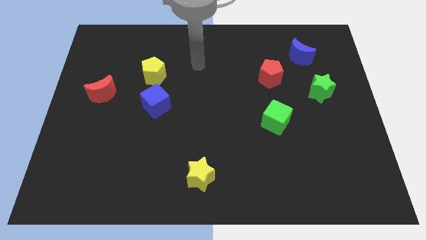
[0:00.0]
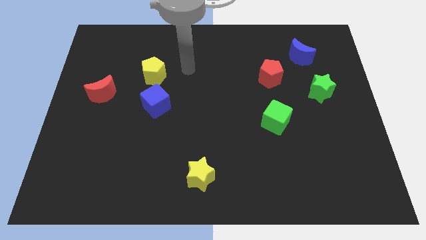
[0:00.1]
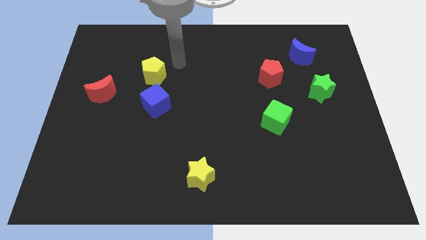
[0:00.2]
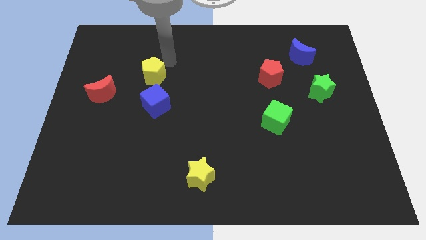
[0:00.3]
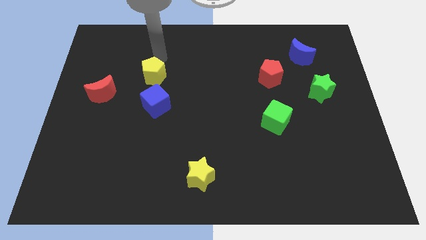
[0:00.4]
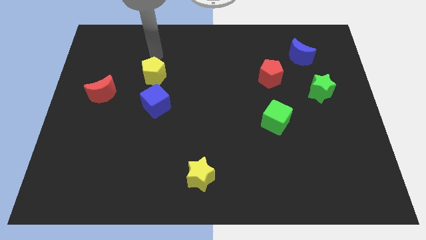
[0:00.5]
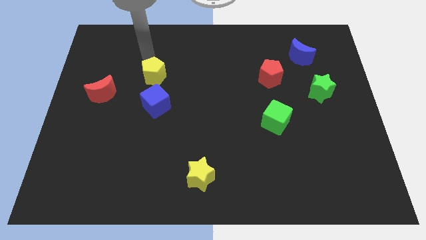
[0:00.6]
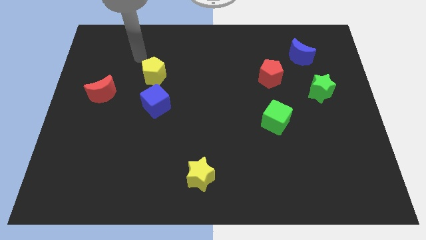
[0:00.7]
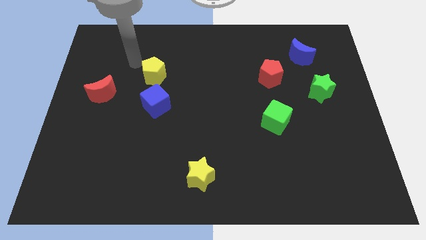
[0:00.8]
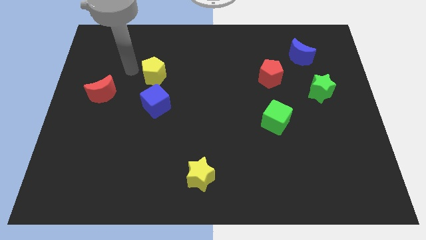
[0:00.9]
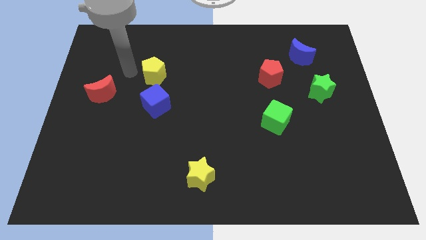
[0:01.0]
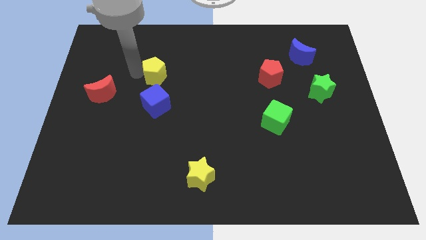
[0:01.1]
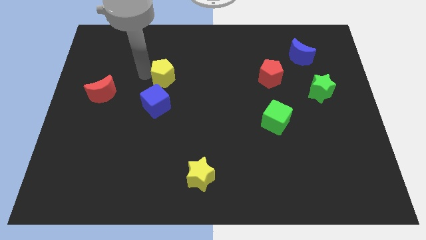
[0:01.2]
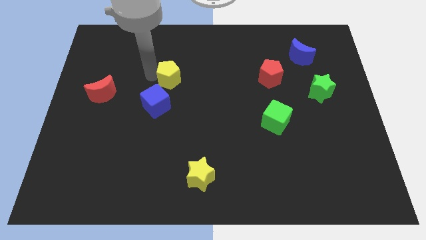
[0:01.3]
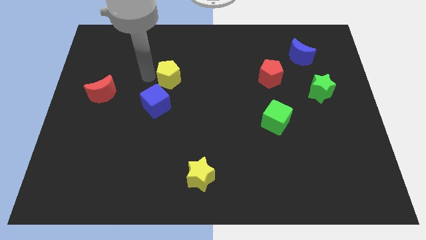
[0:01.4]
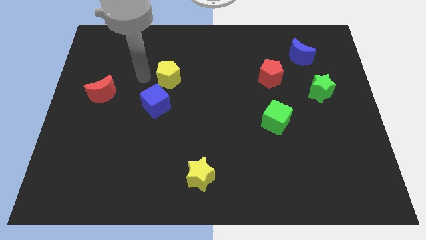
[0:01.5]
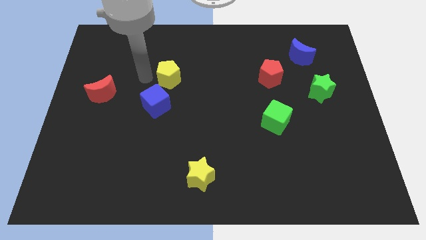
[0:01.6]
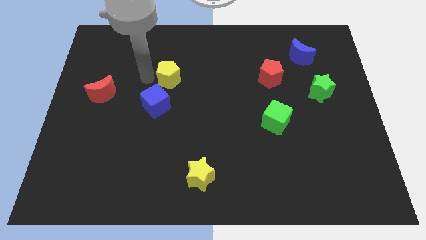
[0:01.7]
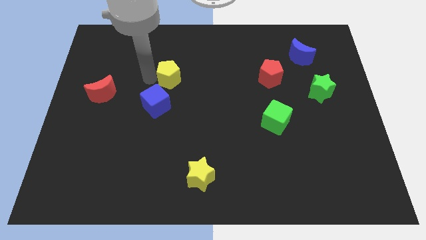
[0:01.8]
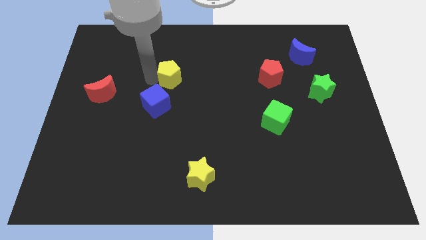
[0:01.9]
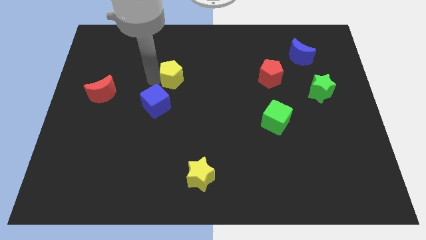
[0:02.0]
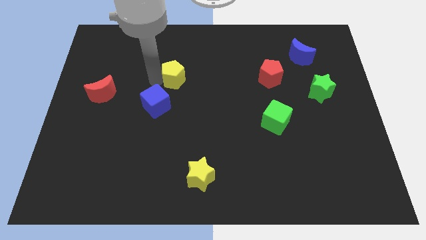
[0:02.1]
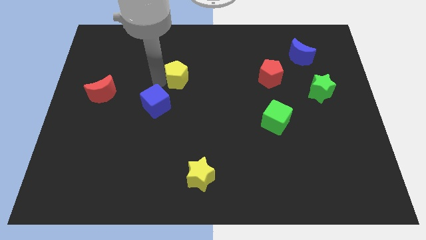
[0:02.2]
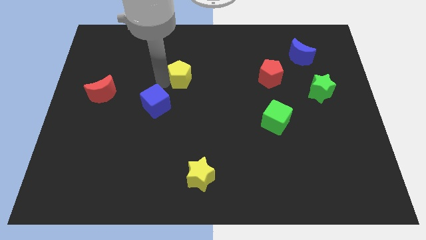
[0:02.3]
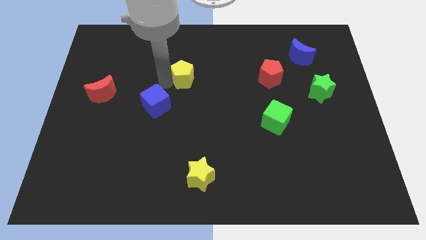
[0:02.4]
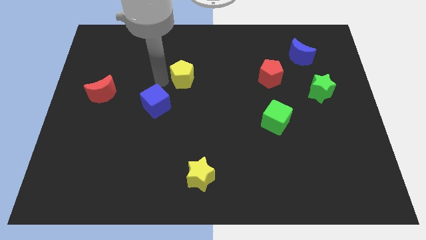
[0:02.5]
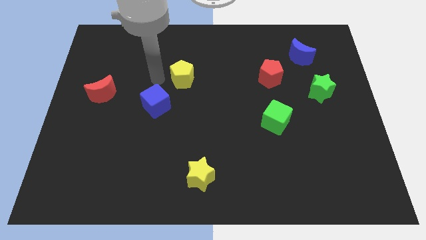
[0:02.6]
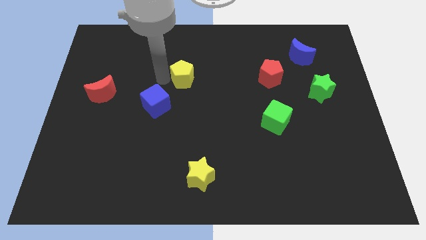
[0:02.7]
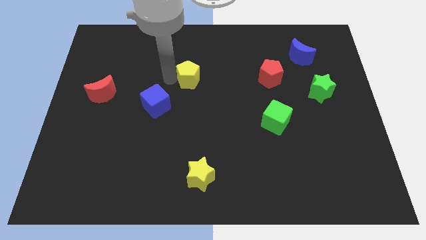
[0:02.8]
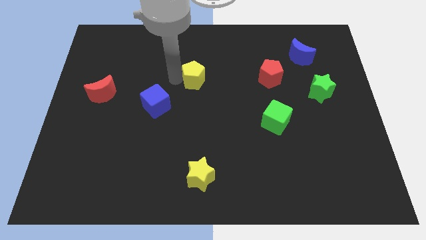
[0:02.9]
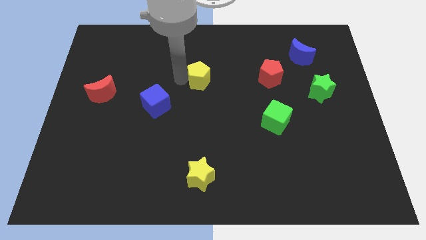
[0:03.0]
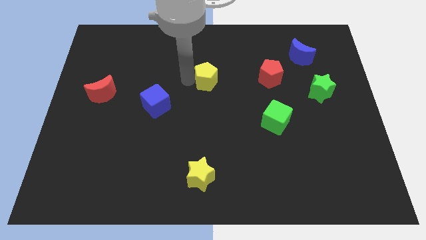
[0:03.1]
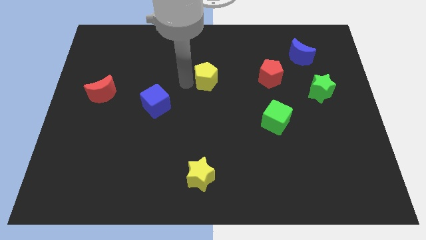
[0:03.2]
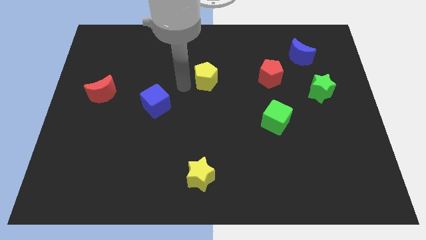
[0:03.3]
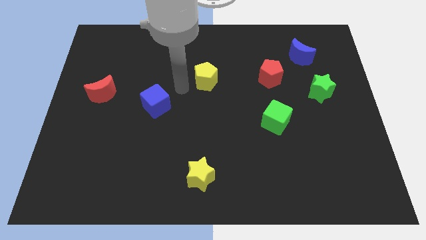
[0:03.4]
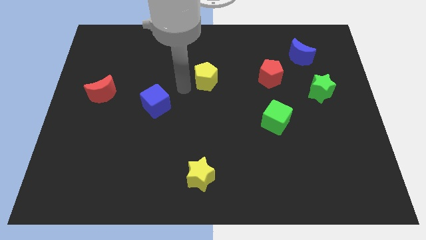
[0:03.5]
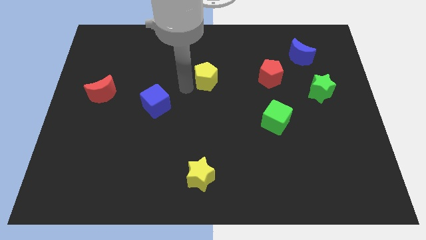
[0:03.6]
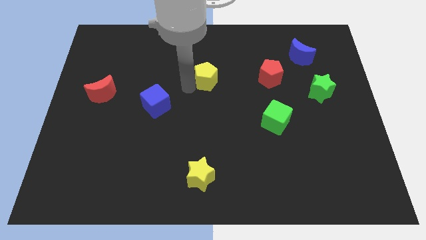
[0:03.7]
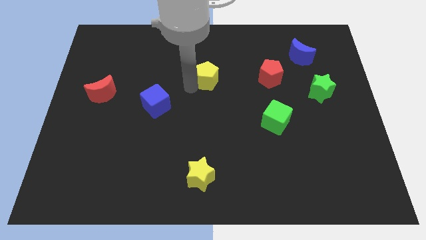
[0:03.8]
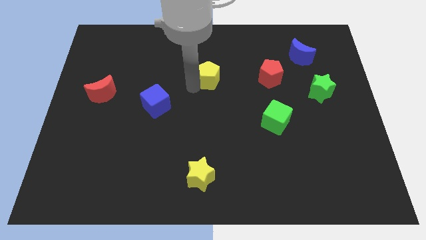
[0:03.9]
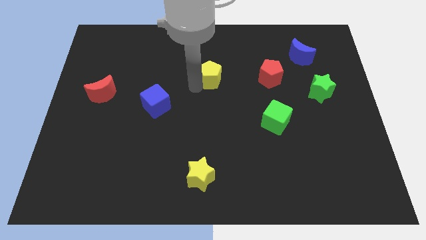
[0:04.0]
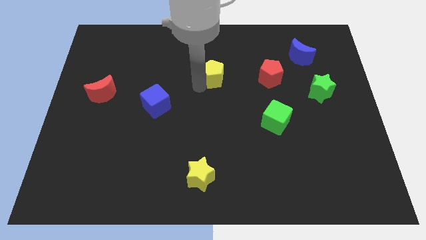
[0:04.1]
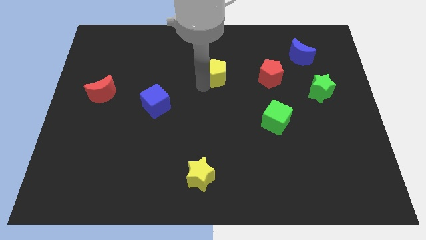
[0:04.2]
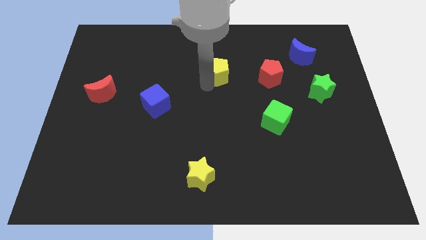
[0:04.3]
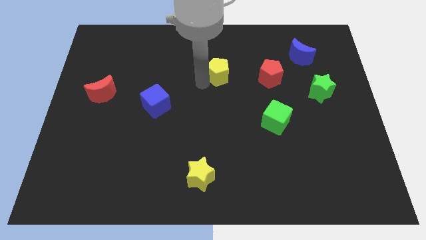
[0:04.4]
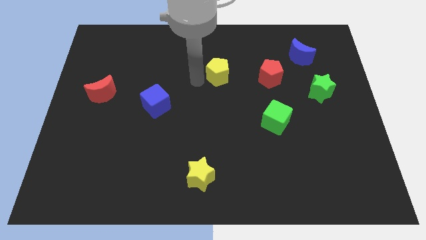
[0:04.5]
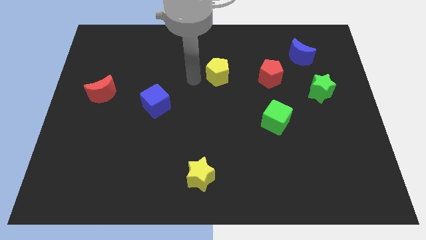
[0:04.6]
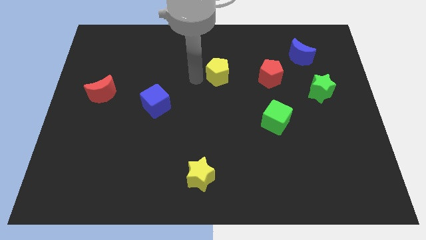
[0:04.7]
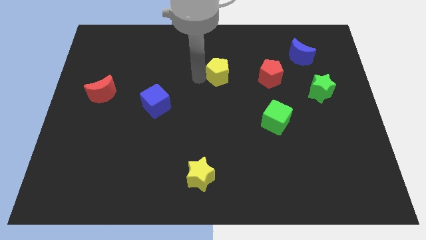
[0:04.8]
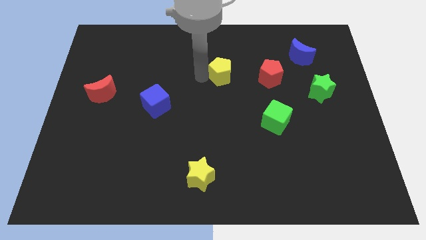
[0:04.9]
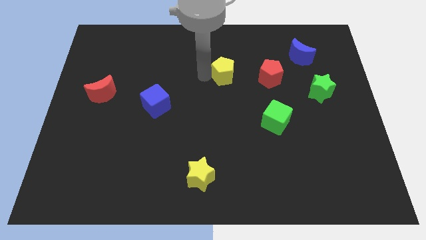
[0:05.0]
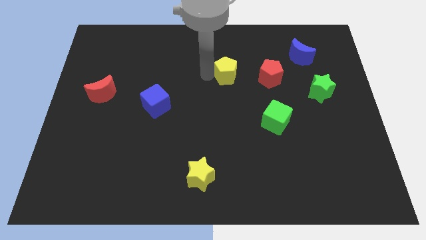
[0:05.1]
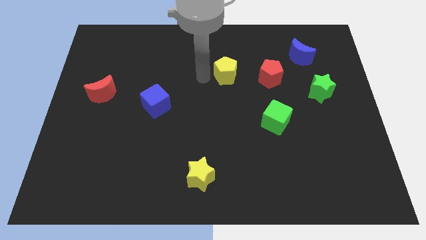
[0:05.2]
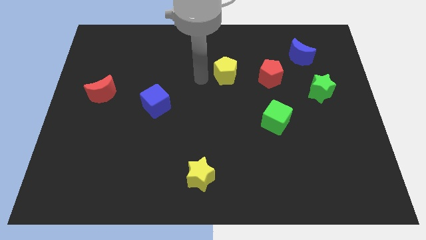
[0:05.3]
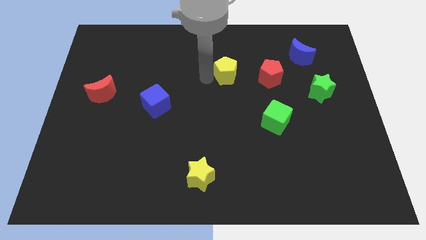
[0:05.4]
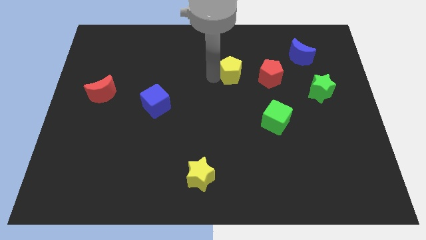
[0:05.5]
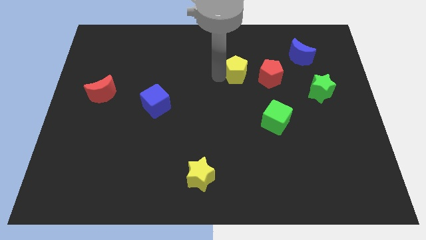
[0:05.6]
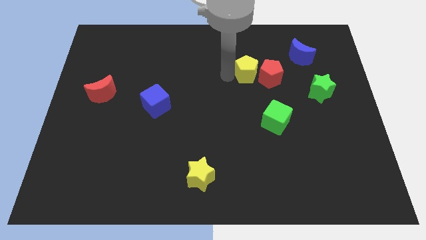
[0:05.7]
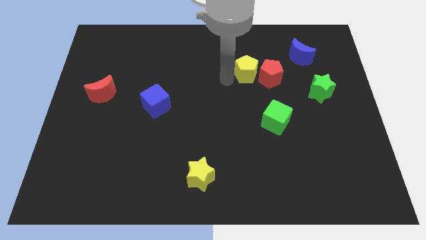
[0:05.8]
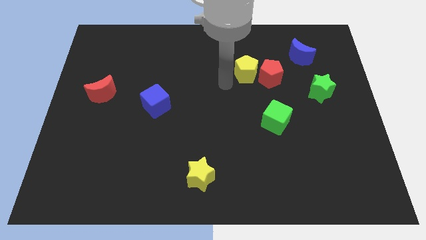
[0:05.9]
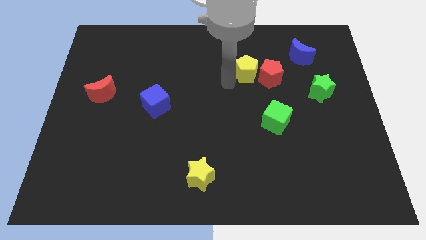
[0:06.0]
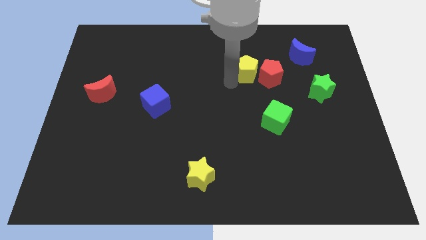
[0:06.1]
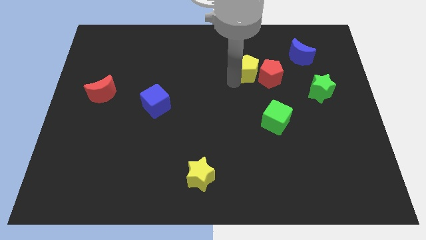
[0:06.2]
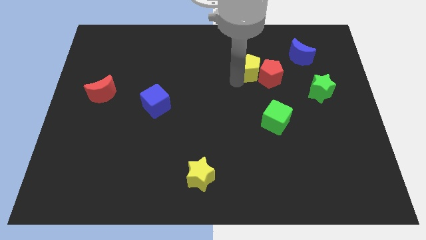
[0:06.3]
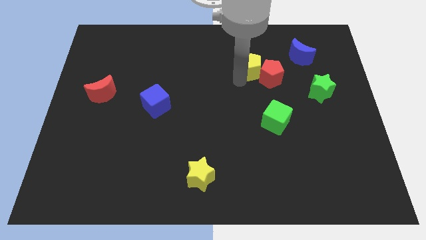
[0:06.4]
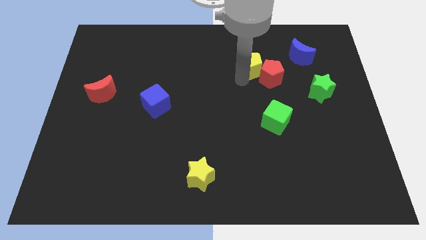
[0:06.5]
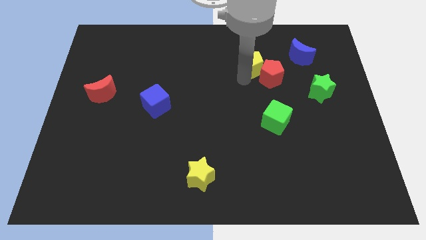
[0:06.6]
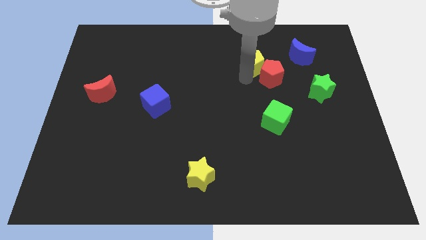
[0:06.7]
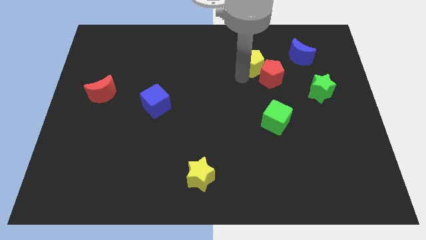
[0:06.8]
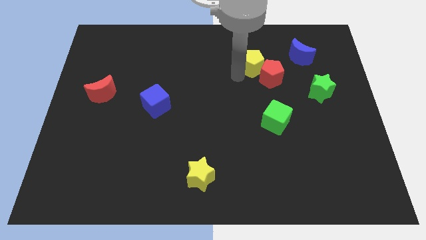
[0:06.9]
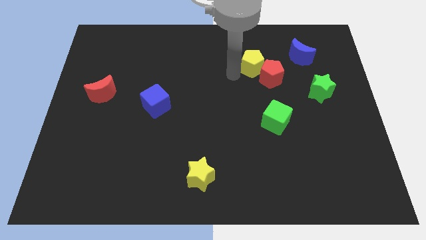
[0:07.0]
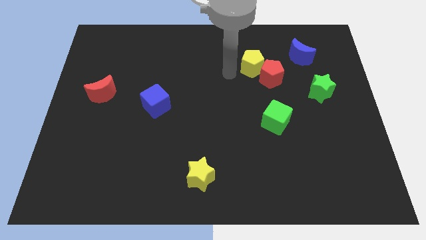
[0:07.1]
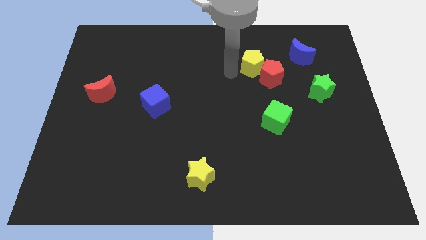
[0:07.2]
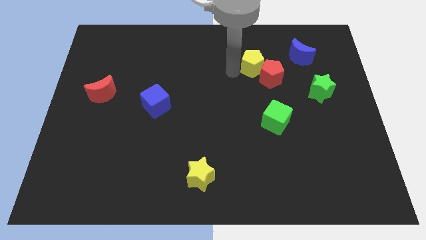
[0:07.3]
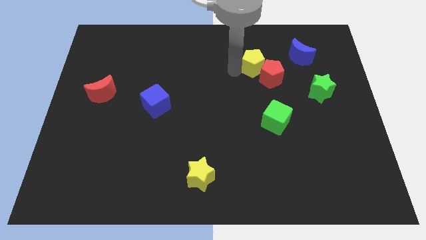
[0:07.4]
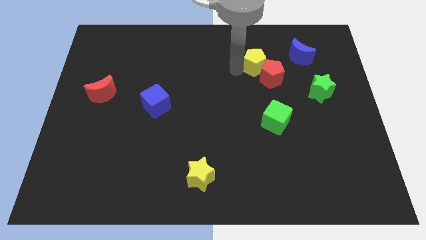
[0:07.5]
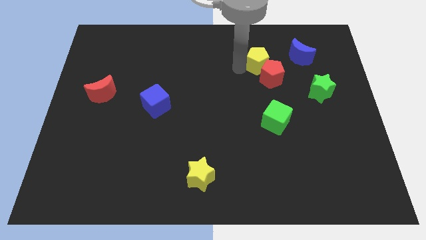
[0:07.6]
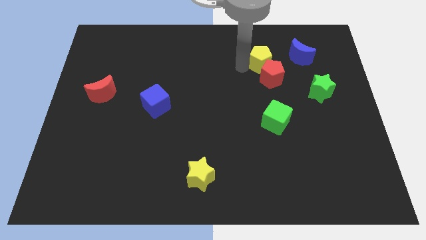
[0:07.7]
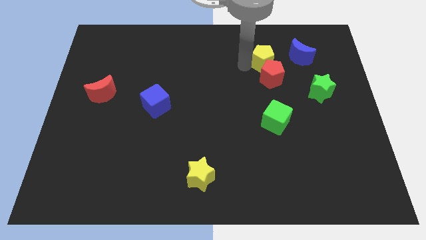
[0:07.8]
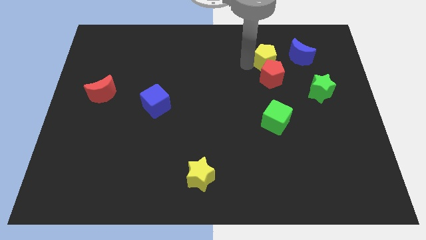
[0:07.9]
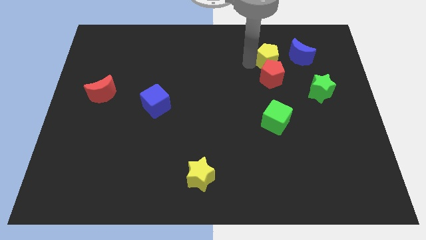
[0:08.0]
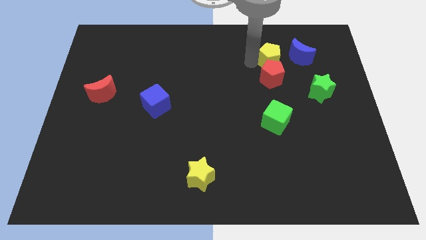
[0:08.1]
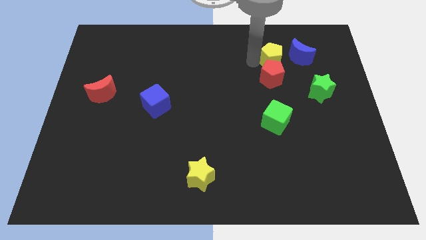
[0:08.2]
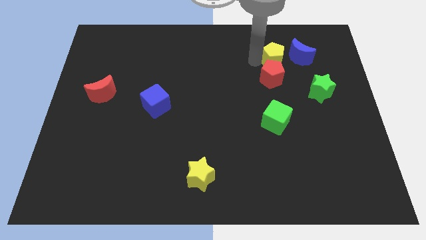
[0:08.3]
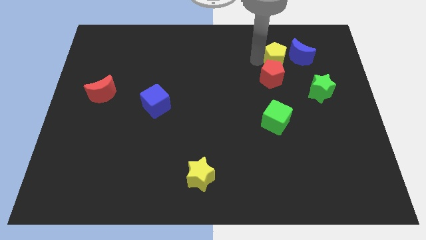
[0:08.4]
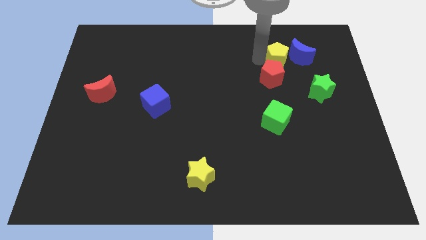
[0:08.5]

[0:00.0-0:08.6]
put the yellow pentagon to the blue moon
